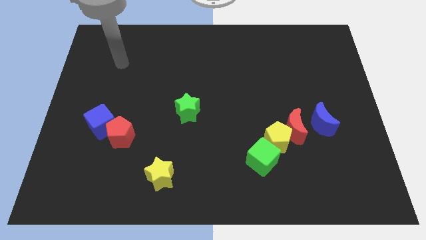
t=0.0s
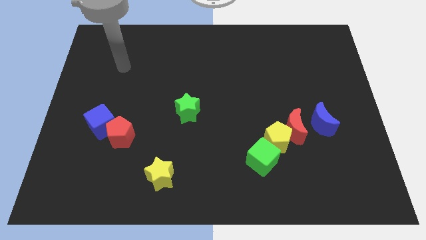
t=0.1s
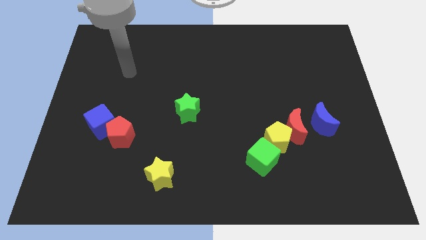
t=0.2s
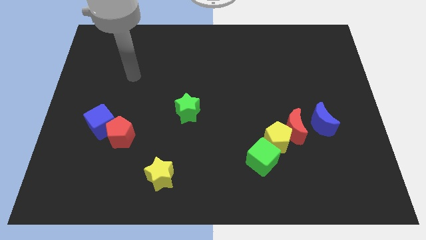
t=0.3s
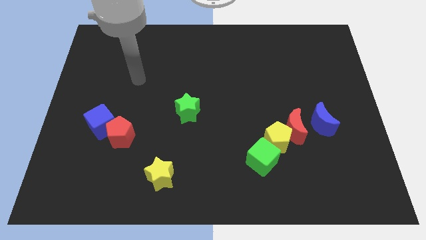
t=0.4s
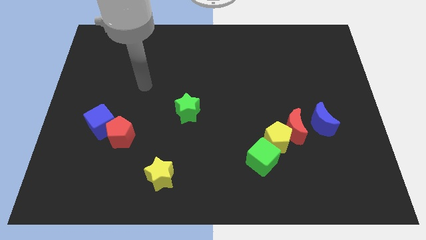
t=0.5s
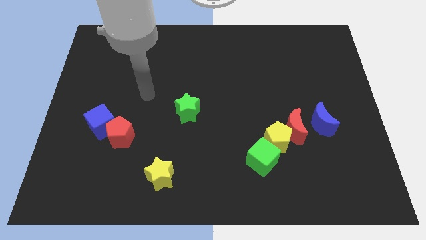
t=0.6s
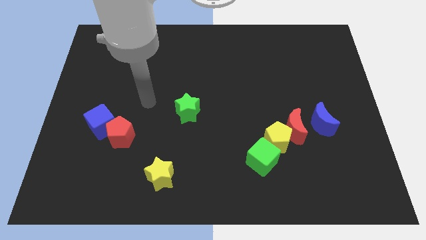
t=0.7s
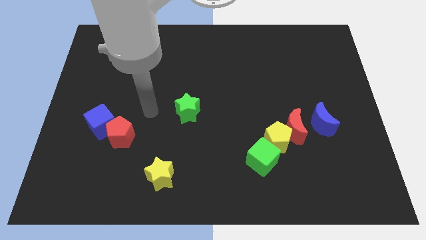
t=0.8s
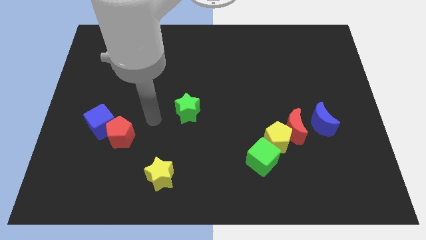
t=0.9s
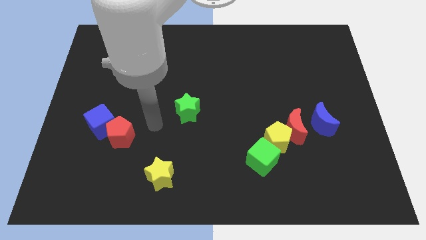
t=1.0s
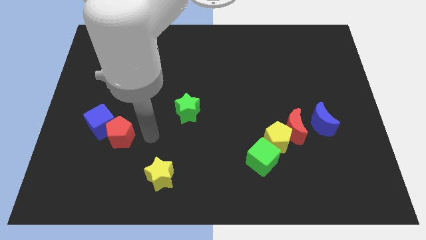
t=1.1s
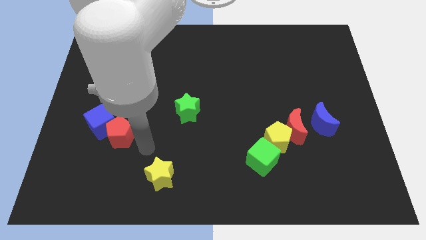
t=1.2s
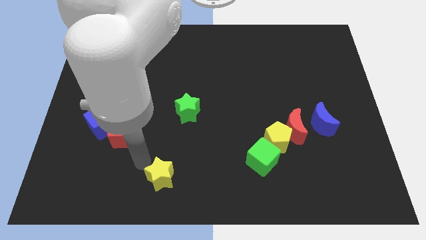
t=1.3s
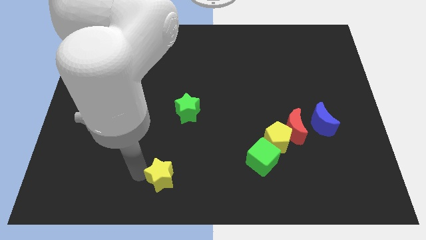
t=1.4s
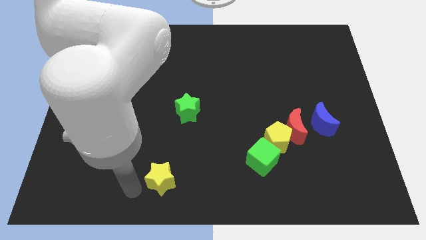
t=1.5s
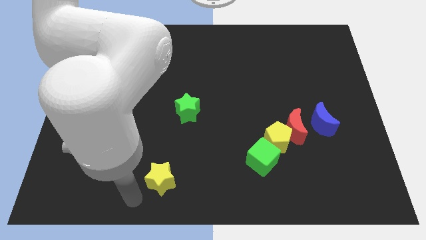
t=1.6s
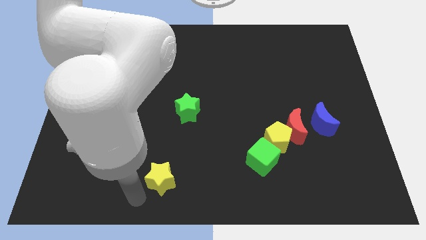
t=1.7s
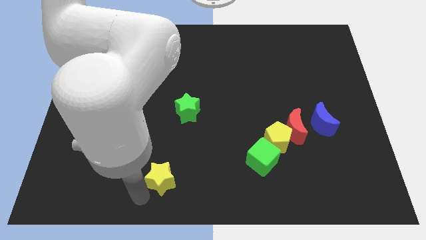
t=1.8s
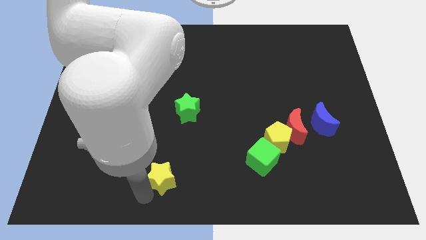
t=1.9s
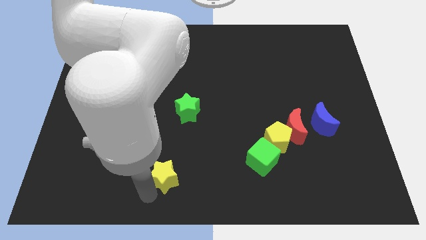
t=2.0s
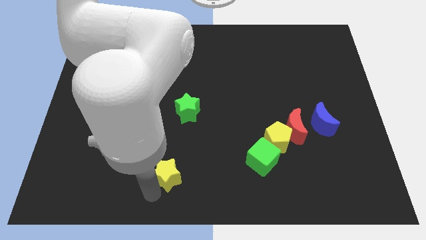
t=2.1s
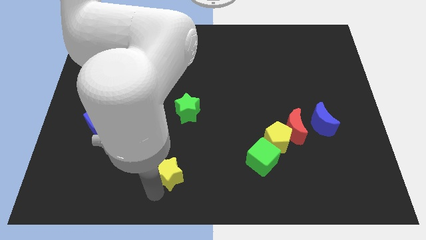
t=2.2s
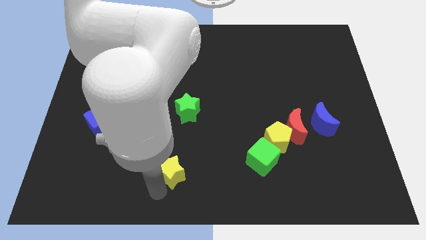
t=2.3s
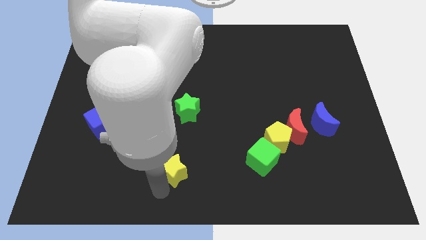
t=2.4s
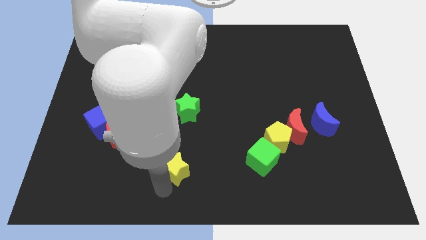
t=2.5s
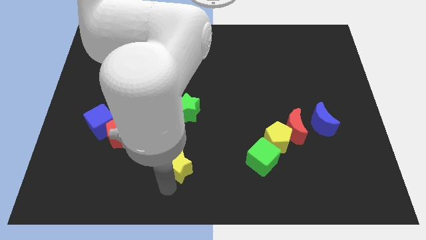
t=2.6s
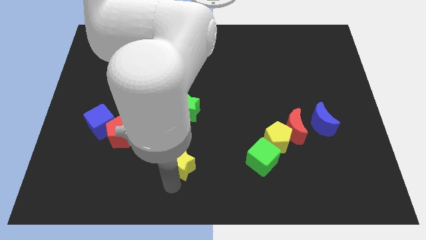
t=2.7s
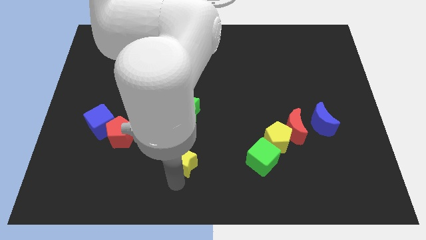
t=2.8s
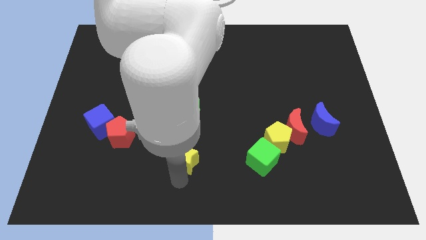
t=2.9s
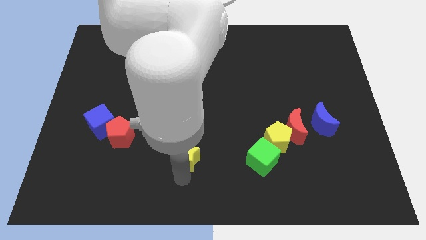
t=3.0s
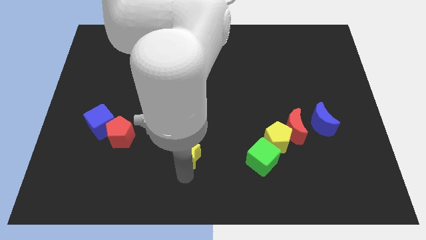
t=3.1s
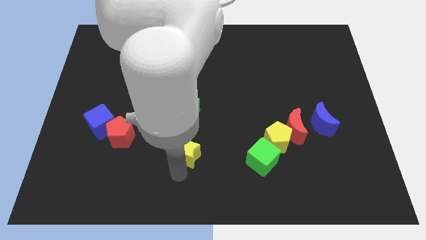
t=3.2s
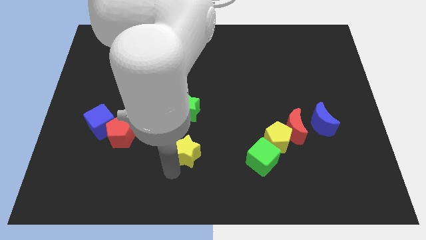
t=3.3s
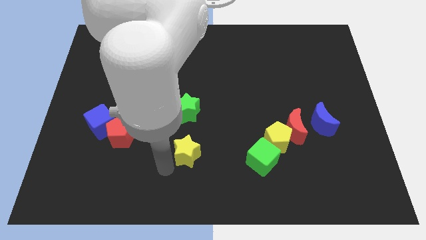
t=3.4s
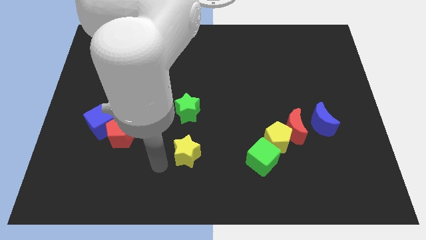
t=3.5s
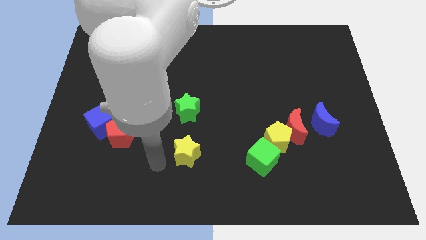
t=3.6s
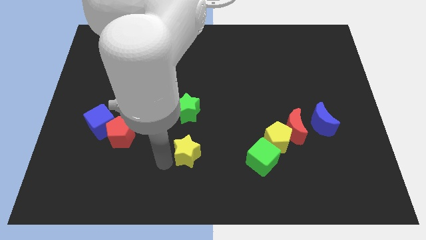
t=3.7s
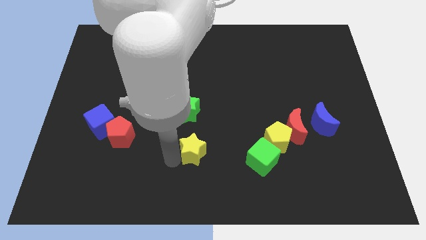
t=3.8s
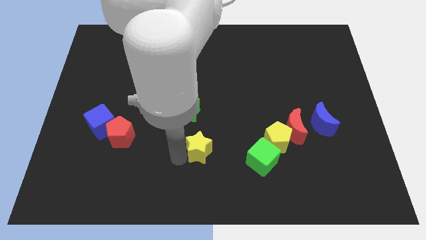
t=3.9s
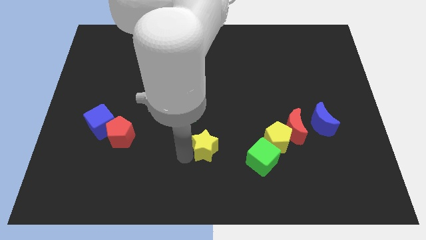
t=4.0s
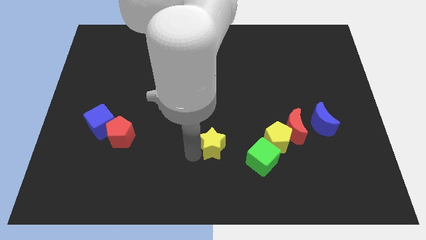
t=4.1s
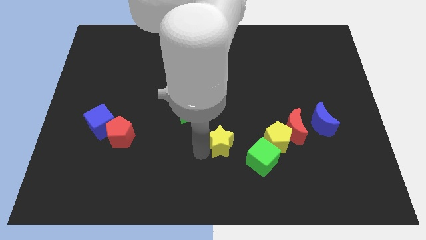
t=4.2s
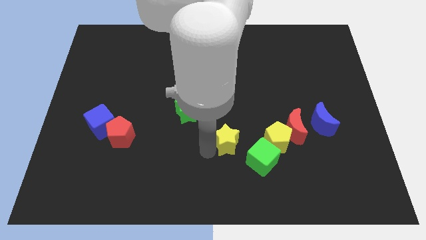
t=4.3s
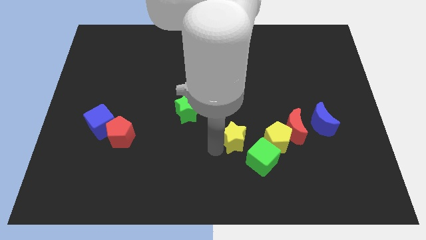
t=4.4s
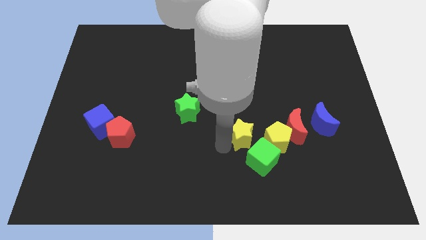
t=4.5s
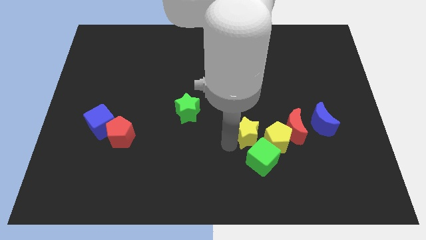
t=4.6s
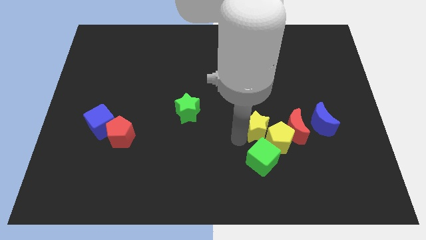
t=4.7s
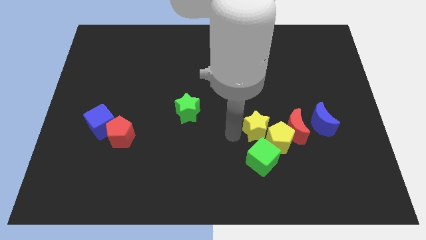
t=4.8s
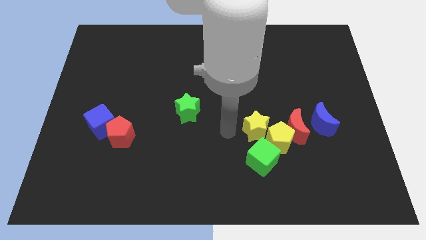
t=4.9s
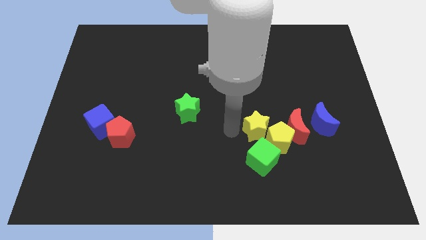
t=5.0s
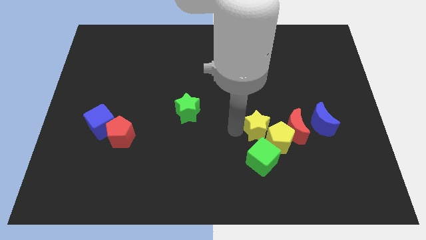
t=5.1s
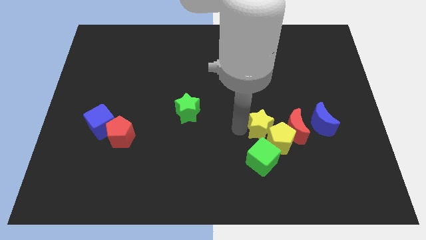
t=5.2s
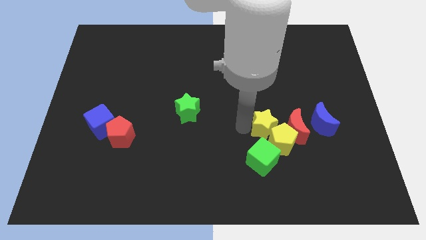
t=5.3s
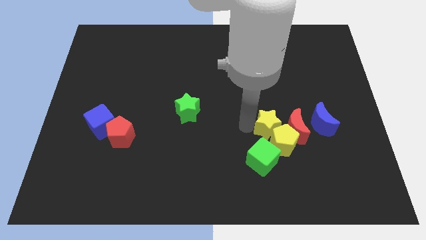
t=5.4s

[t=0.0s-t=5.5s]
put the yellow star to the red moon
